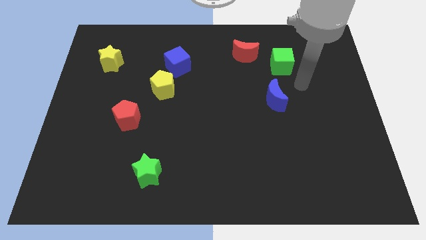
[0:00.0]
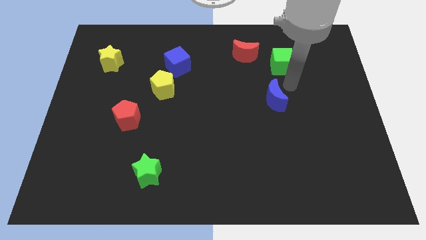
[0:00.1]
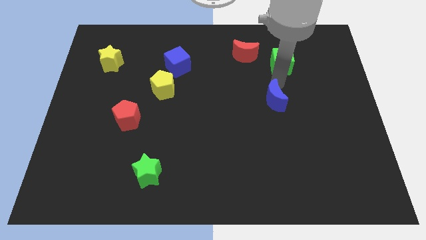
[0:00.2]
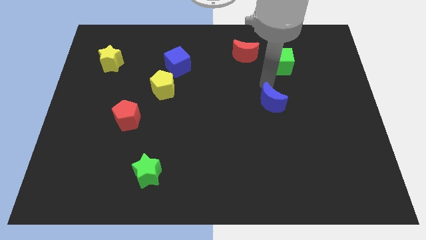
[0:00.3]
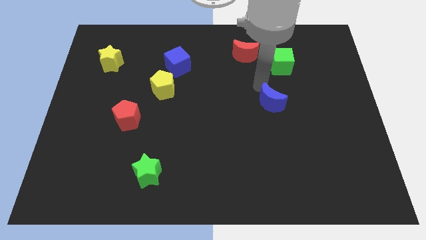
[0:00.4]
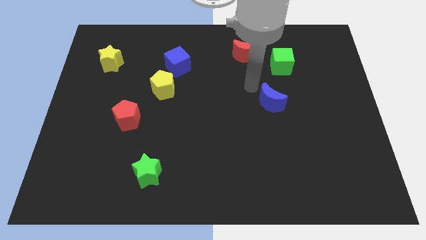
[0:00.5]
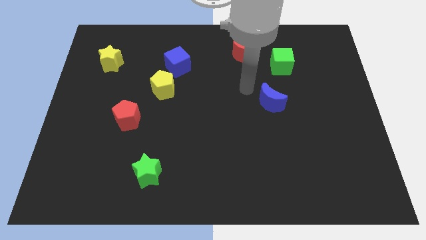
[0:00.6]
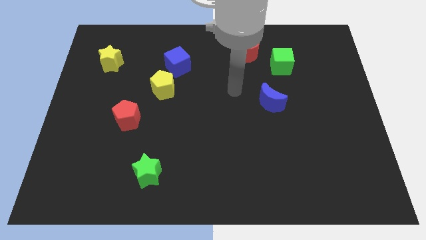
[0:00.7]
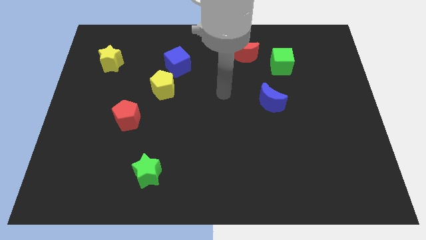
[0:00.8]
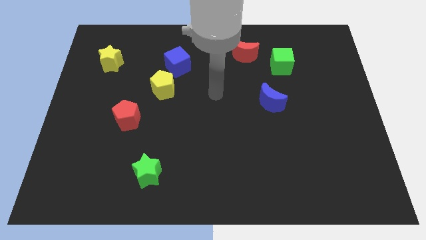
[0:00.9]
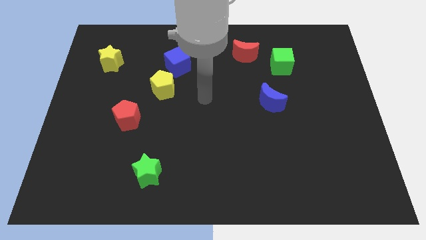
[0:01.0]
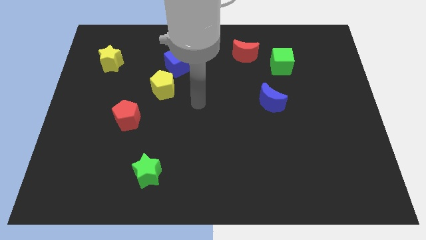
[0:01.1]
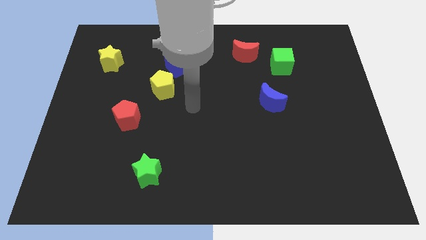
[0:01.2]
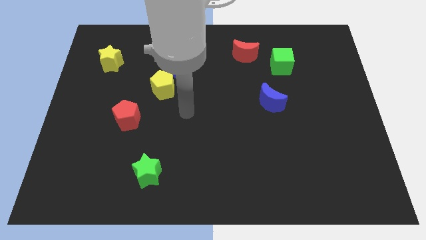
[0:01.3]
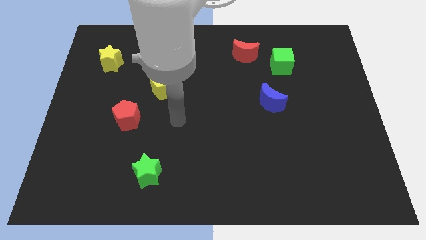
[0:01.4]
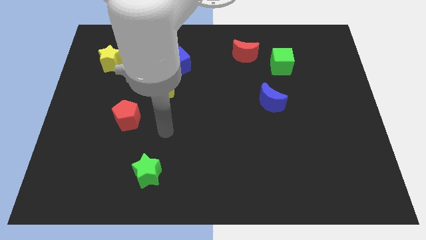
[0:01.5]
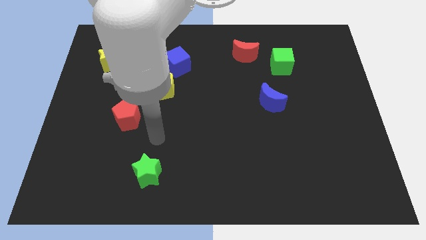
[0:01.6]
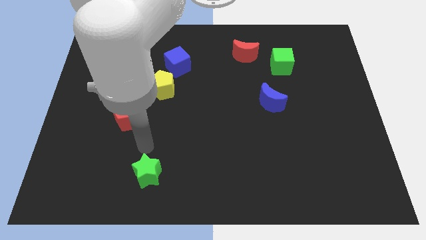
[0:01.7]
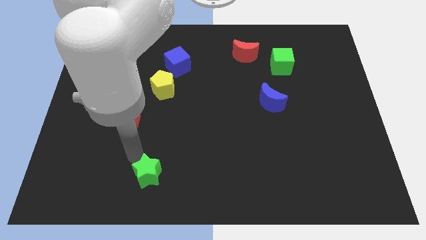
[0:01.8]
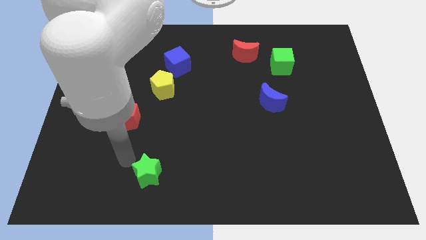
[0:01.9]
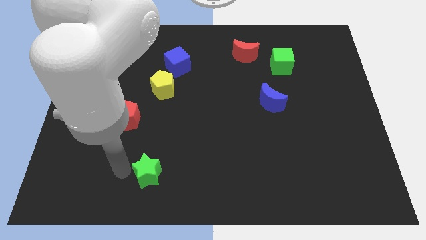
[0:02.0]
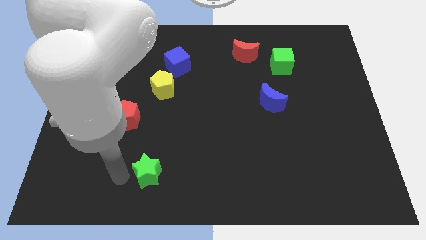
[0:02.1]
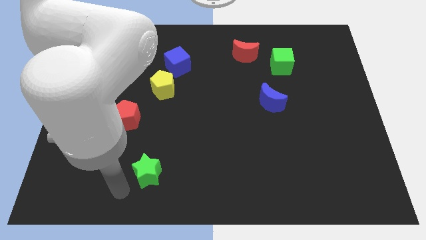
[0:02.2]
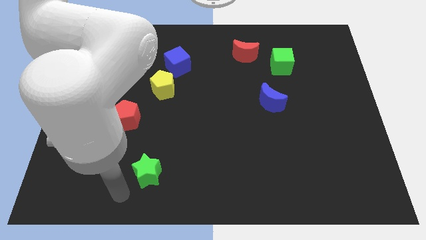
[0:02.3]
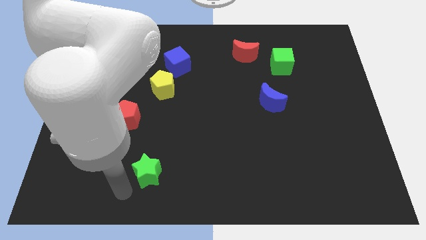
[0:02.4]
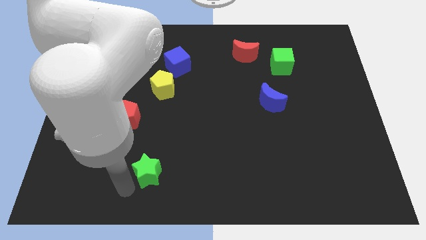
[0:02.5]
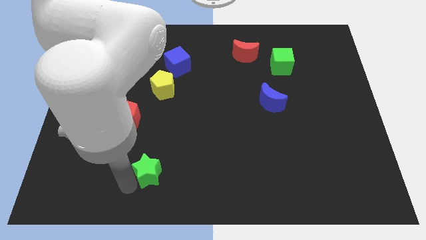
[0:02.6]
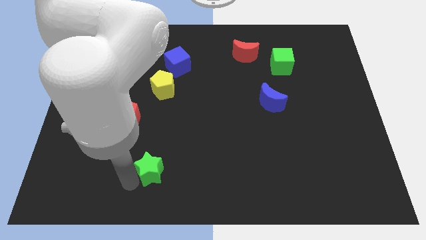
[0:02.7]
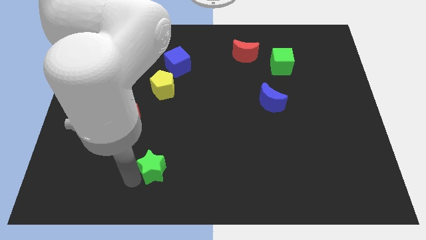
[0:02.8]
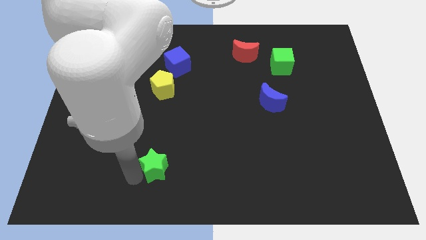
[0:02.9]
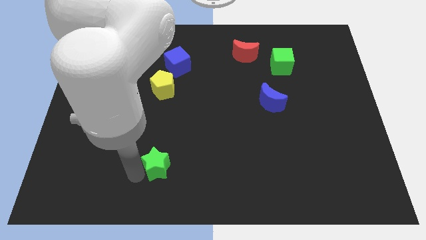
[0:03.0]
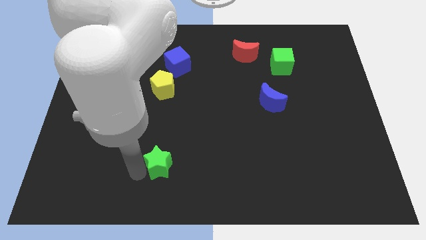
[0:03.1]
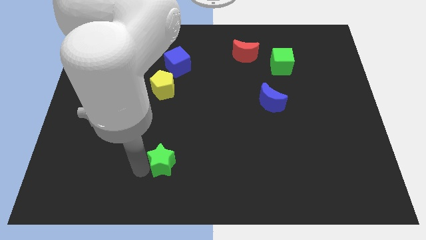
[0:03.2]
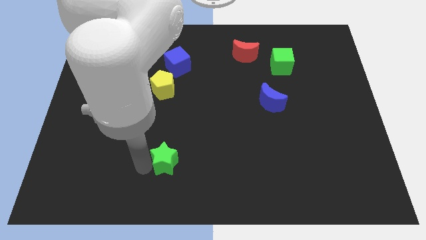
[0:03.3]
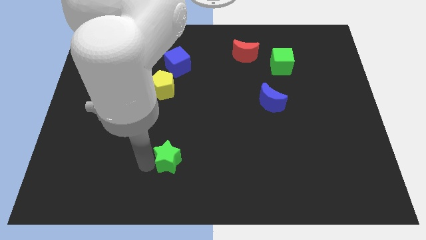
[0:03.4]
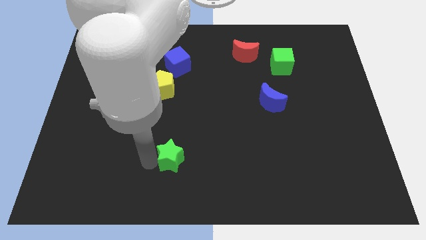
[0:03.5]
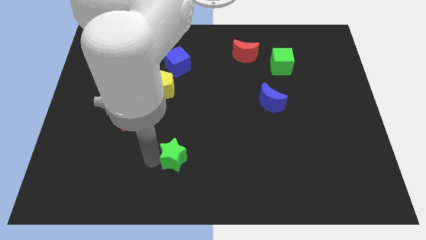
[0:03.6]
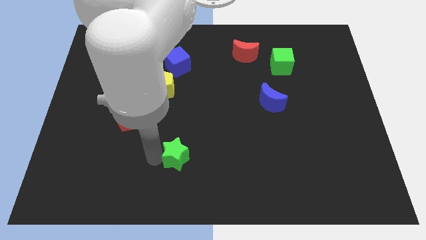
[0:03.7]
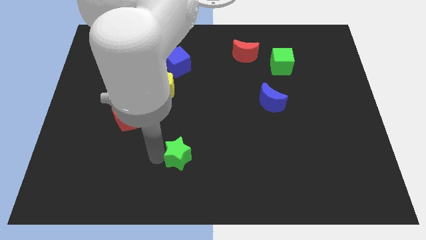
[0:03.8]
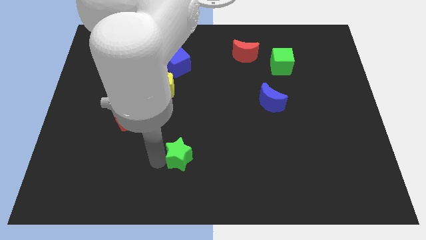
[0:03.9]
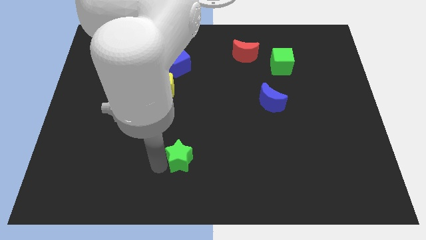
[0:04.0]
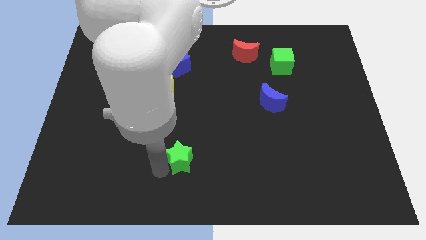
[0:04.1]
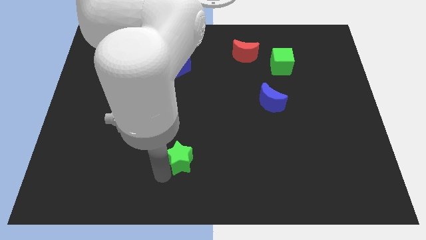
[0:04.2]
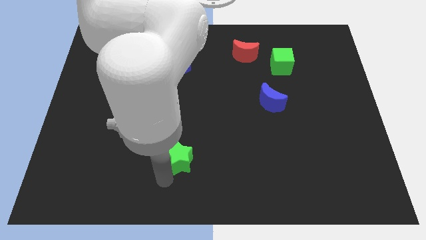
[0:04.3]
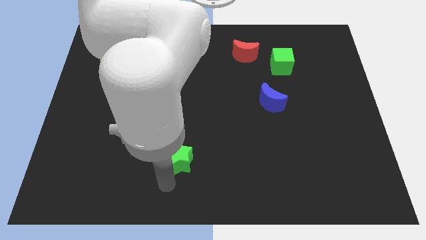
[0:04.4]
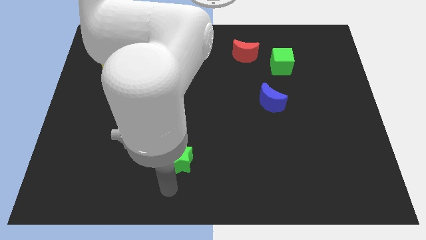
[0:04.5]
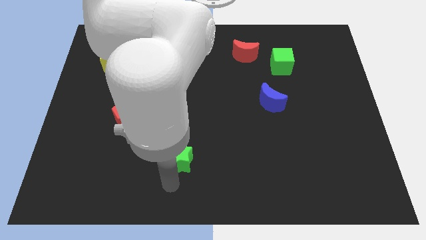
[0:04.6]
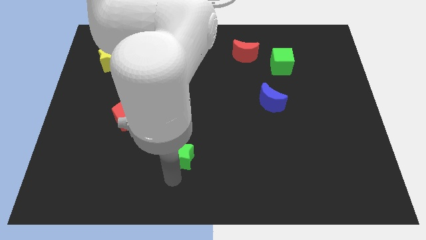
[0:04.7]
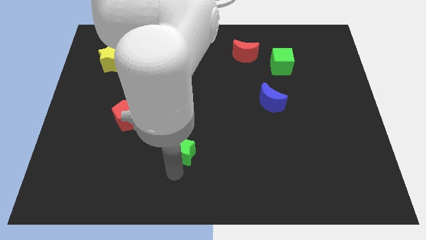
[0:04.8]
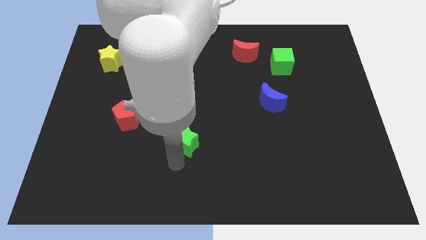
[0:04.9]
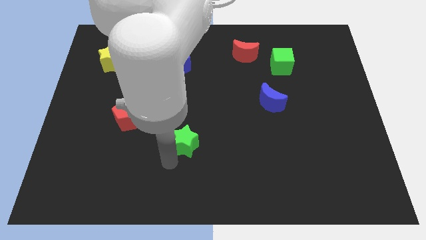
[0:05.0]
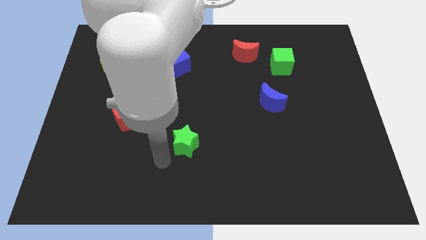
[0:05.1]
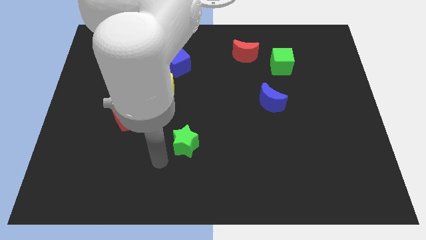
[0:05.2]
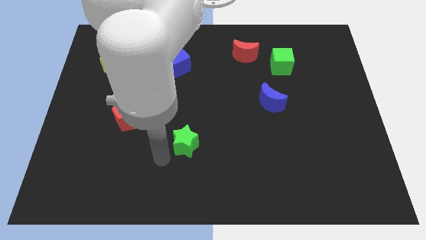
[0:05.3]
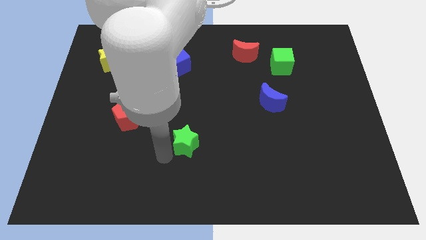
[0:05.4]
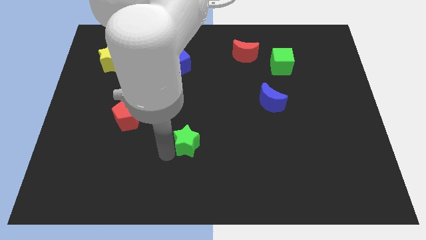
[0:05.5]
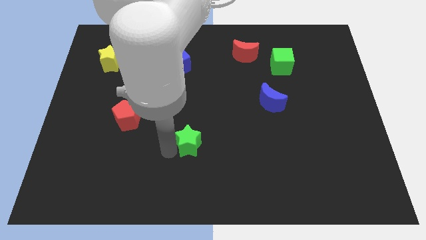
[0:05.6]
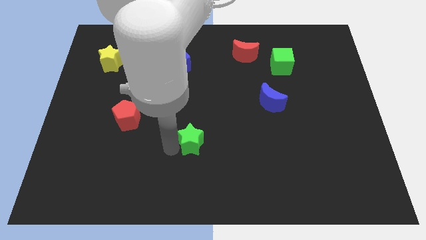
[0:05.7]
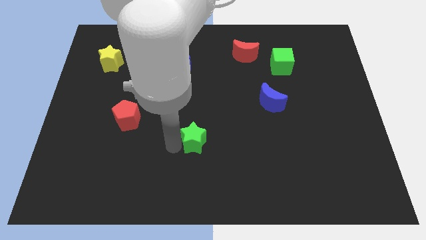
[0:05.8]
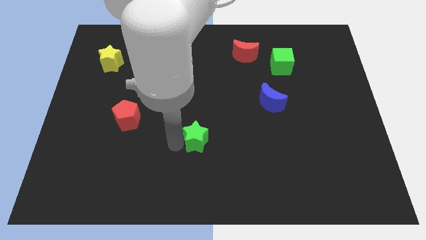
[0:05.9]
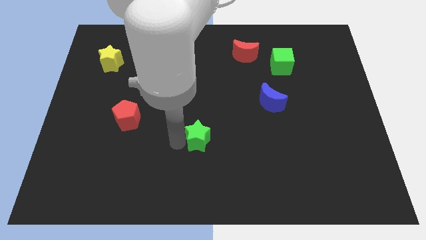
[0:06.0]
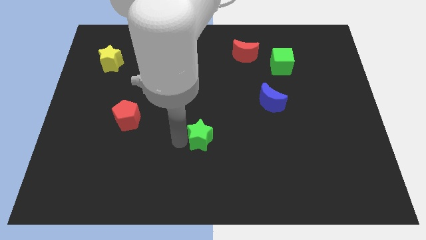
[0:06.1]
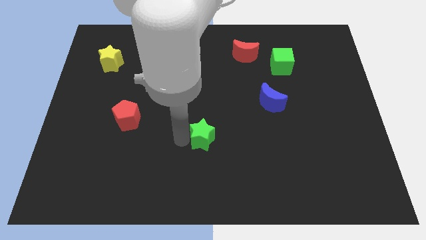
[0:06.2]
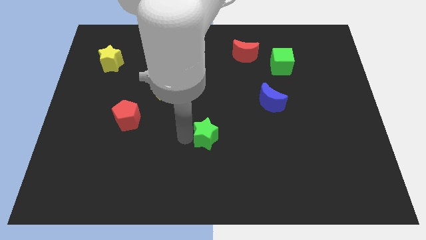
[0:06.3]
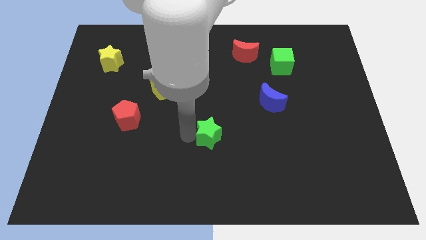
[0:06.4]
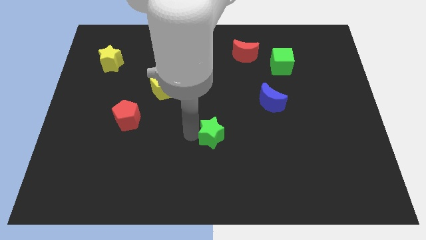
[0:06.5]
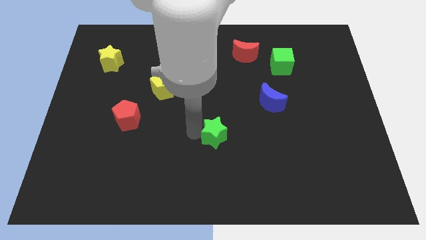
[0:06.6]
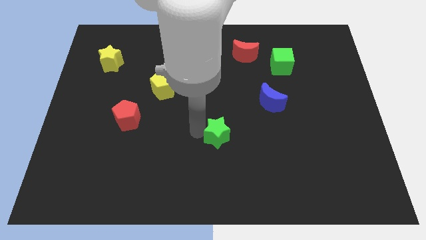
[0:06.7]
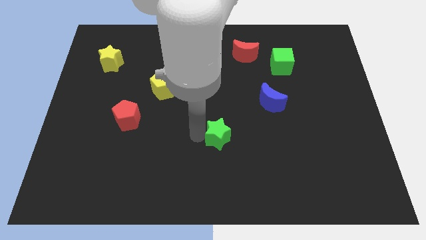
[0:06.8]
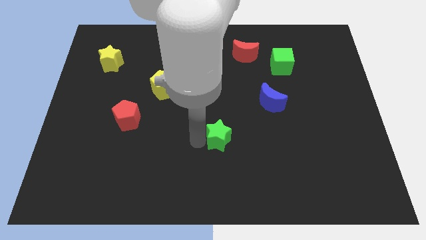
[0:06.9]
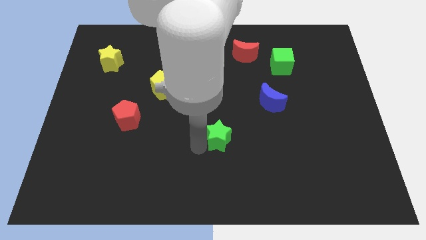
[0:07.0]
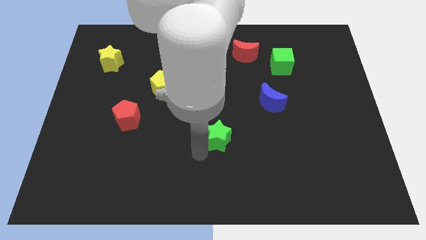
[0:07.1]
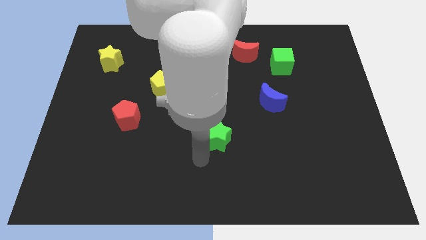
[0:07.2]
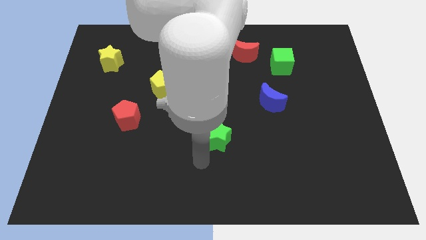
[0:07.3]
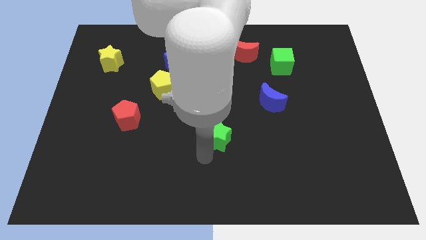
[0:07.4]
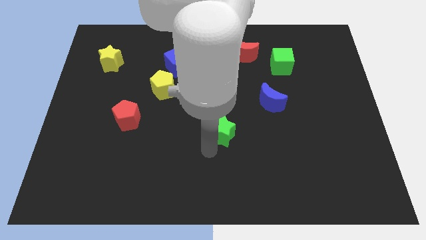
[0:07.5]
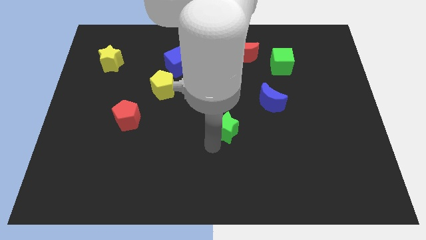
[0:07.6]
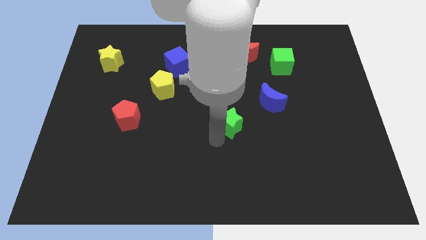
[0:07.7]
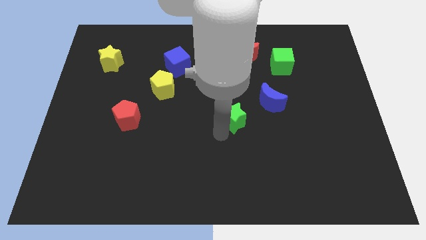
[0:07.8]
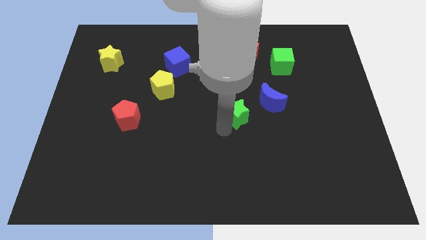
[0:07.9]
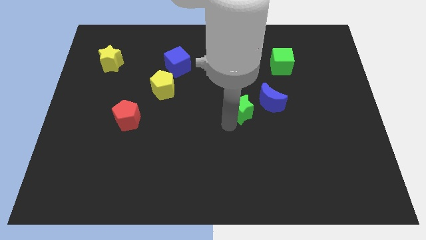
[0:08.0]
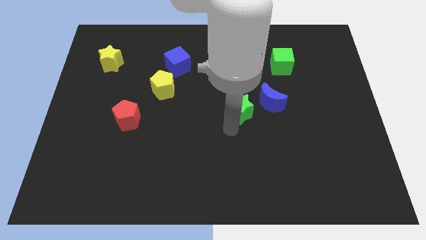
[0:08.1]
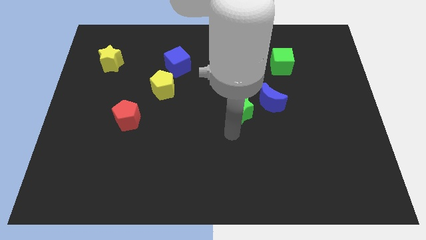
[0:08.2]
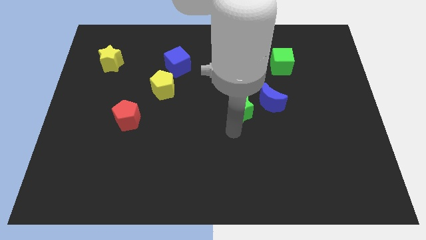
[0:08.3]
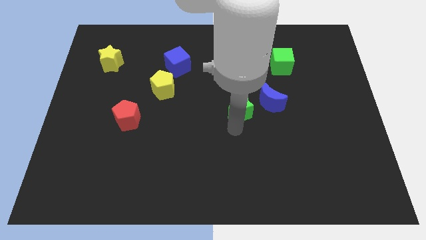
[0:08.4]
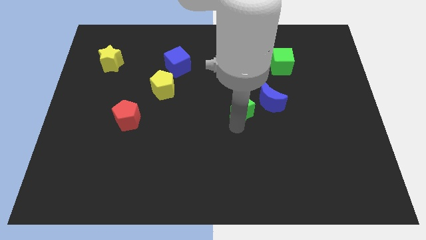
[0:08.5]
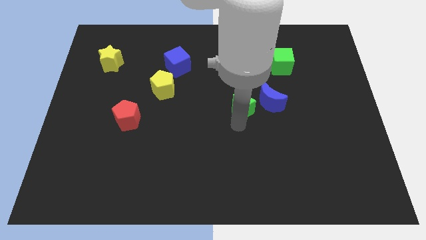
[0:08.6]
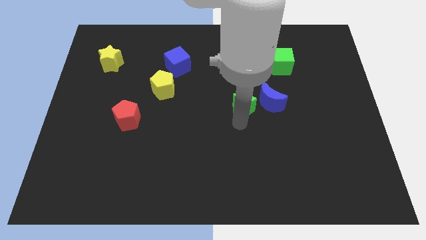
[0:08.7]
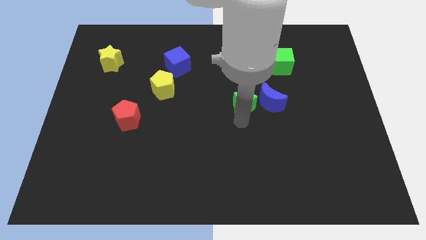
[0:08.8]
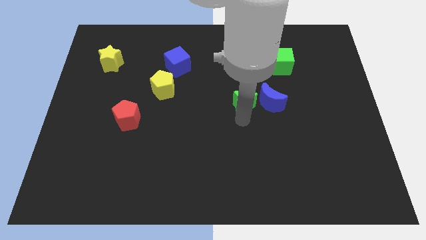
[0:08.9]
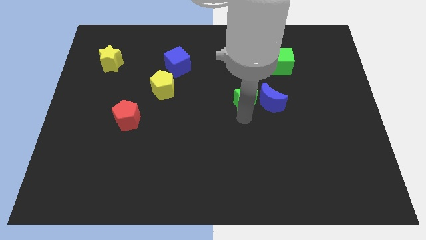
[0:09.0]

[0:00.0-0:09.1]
slide the green star to the bottom side of the red moon
